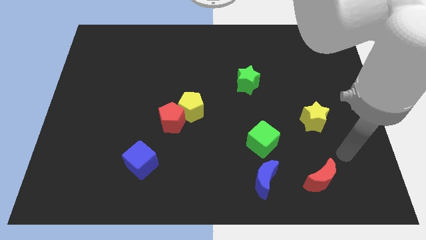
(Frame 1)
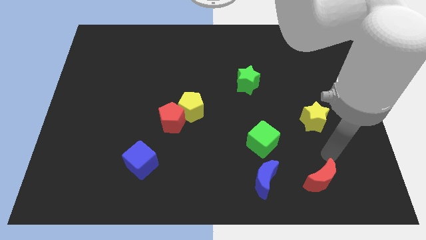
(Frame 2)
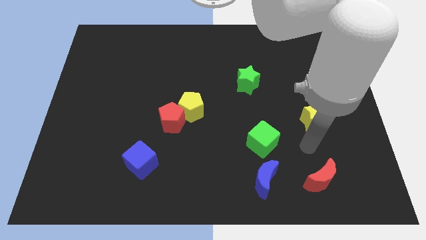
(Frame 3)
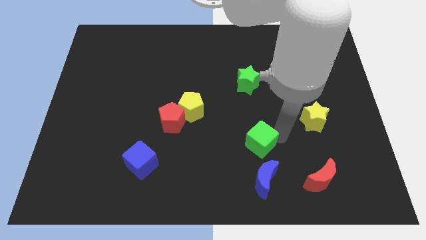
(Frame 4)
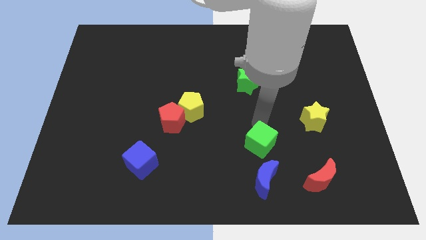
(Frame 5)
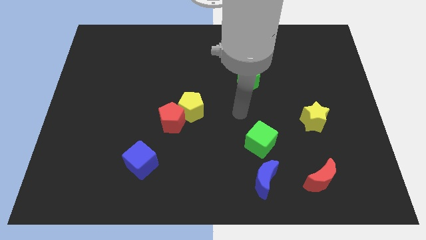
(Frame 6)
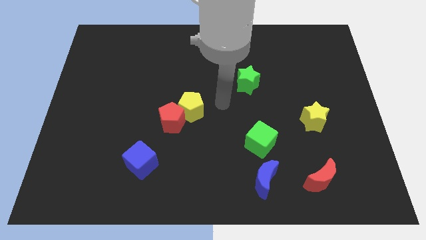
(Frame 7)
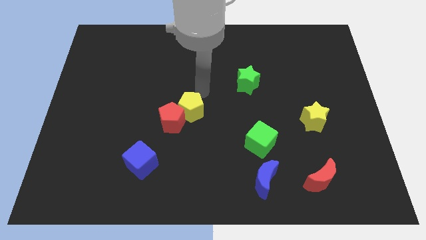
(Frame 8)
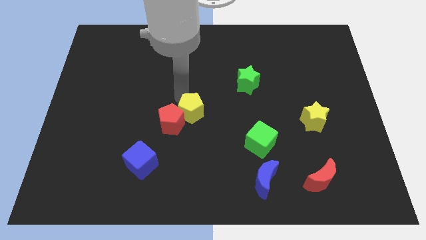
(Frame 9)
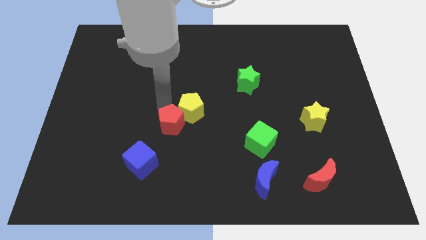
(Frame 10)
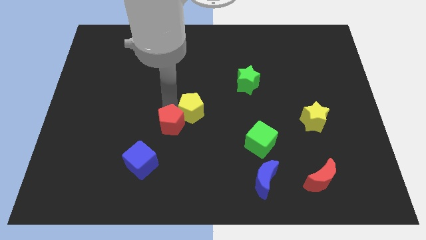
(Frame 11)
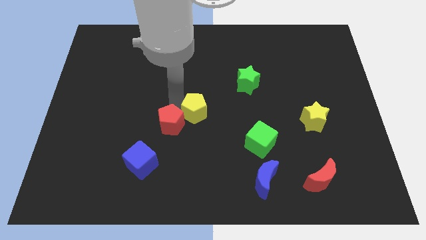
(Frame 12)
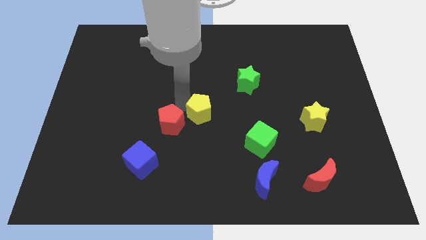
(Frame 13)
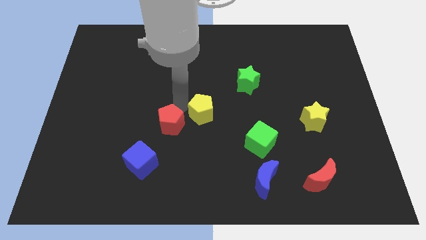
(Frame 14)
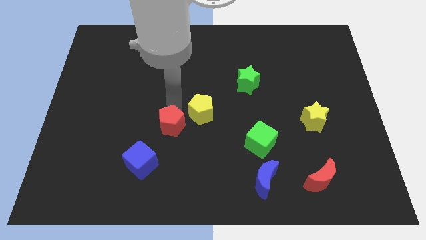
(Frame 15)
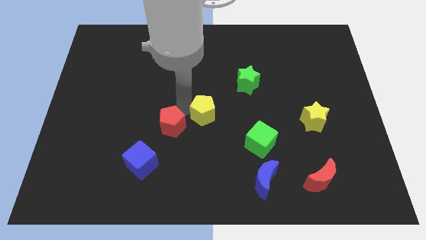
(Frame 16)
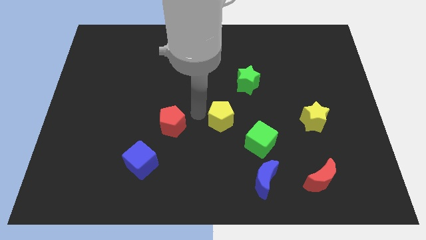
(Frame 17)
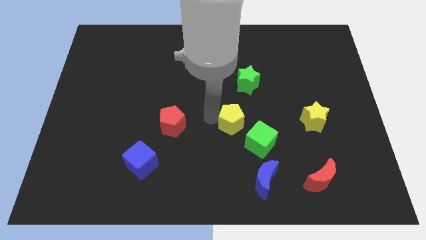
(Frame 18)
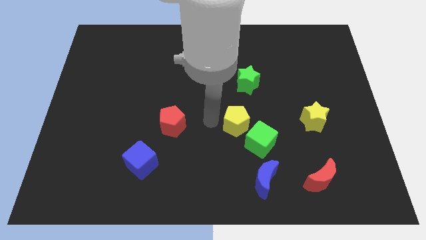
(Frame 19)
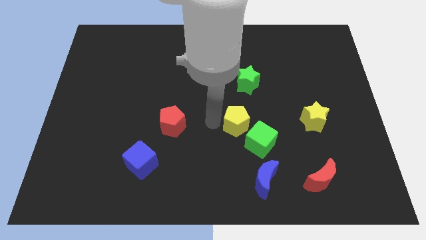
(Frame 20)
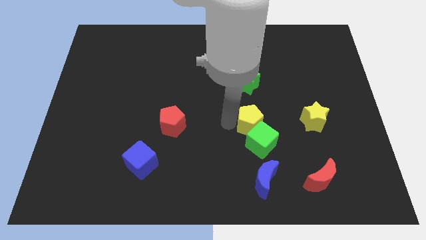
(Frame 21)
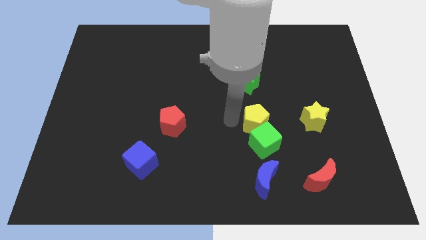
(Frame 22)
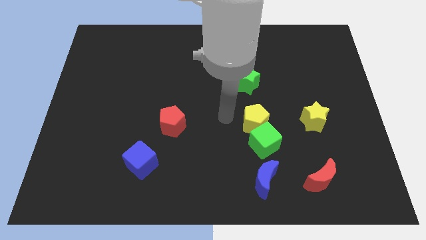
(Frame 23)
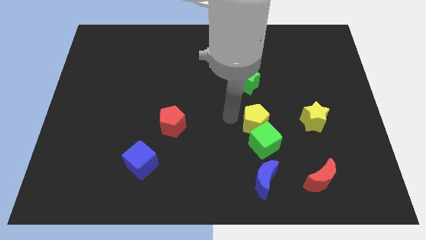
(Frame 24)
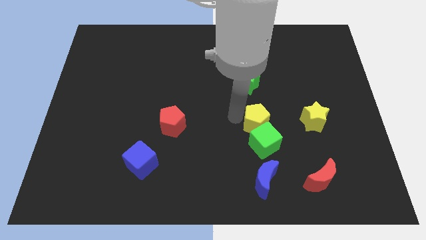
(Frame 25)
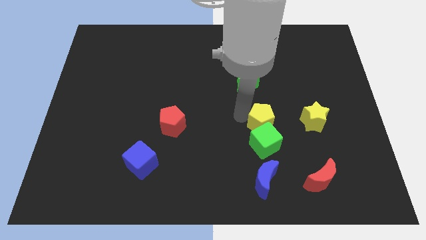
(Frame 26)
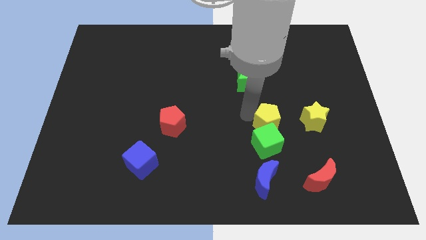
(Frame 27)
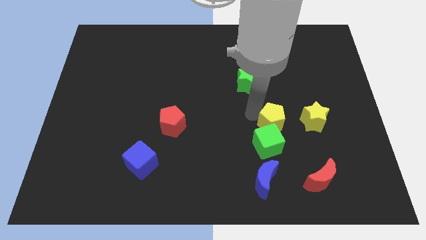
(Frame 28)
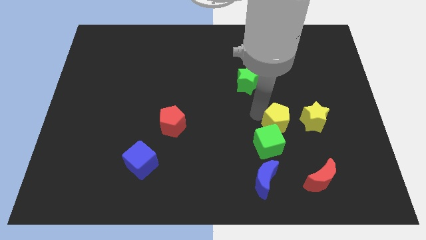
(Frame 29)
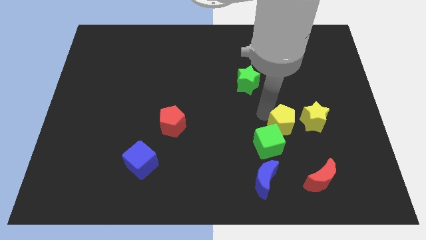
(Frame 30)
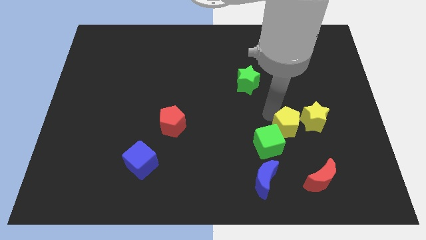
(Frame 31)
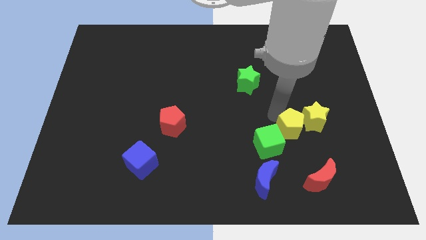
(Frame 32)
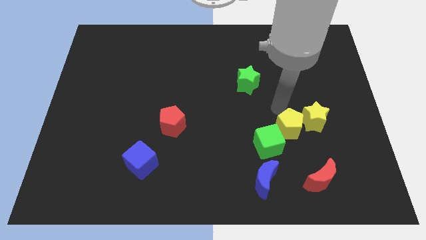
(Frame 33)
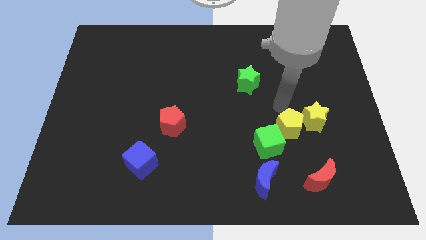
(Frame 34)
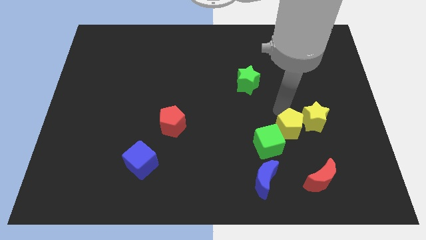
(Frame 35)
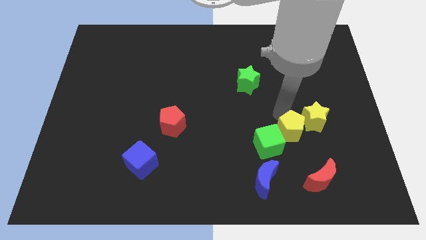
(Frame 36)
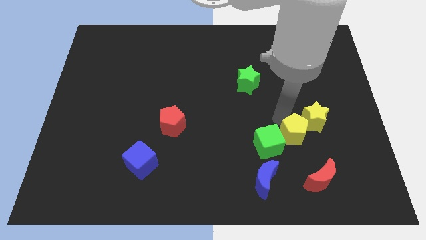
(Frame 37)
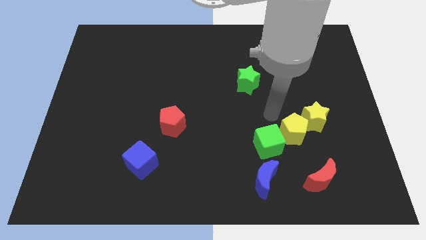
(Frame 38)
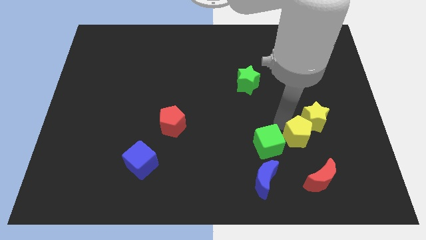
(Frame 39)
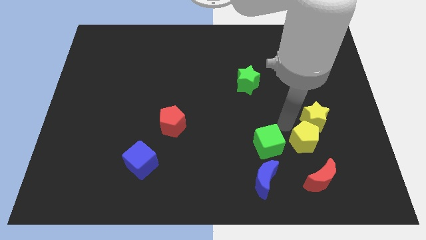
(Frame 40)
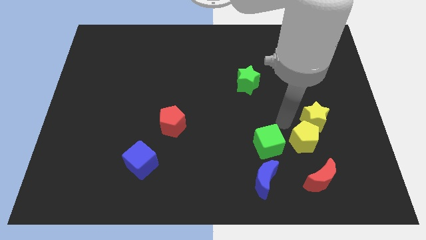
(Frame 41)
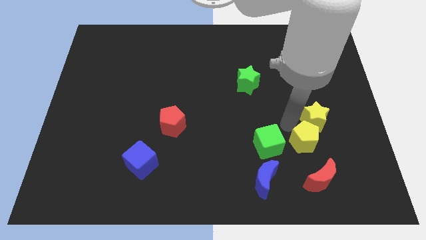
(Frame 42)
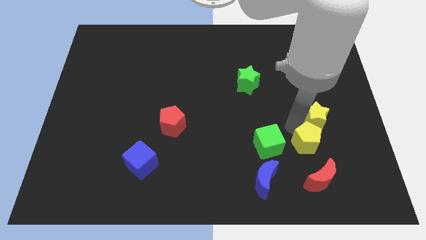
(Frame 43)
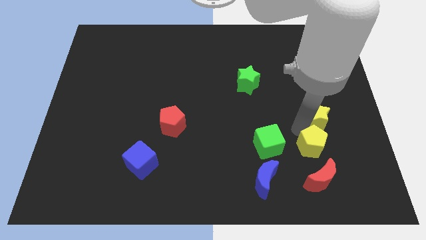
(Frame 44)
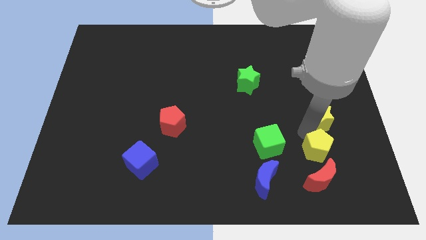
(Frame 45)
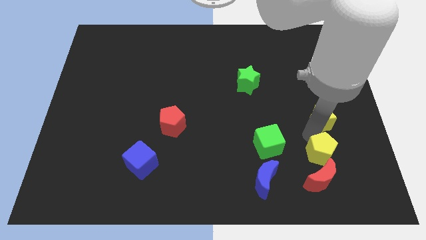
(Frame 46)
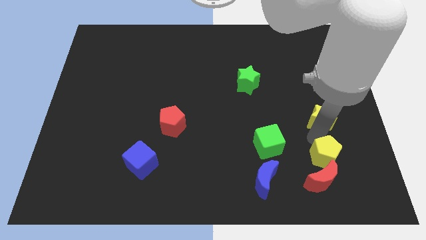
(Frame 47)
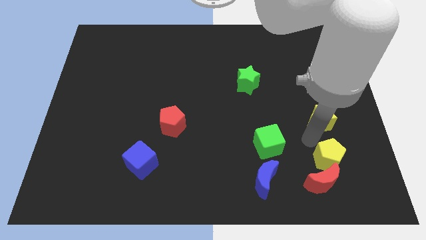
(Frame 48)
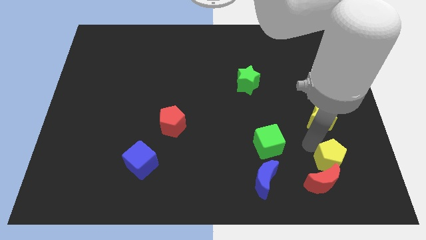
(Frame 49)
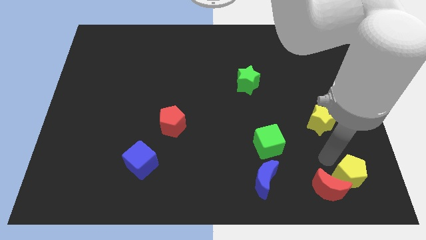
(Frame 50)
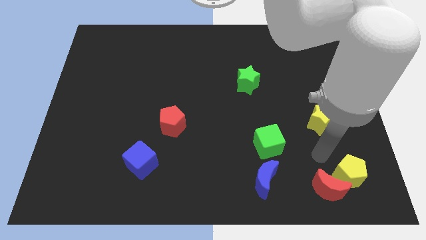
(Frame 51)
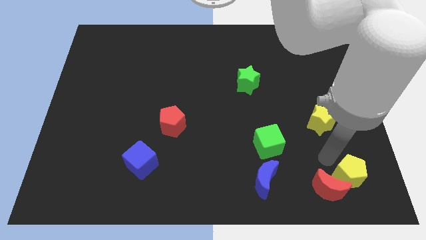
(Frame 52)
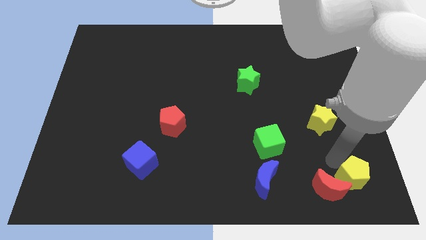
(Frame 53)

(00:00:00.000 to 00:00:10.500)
put the yellow pentagon to the bottom right
